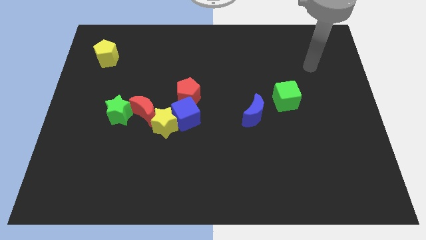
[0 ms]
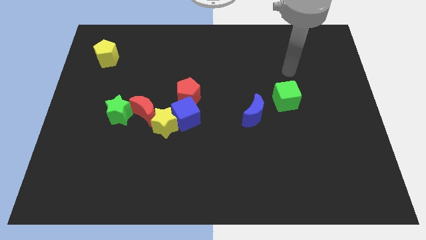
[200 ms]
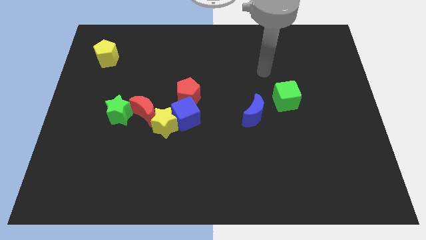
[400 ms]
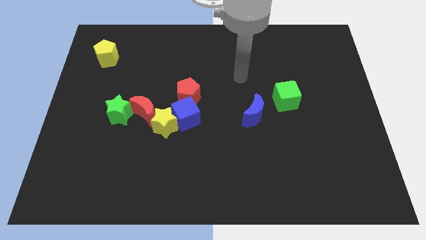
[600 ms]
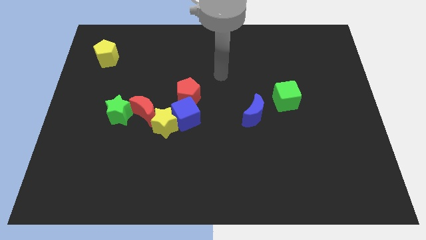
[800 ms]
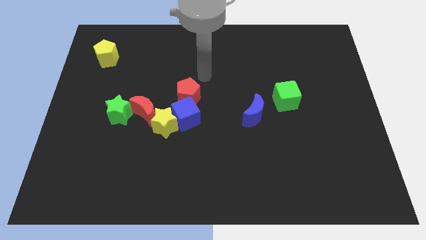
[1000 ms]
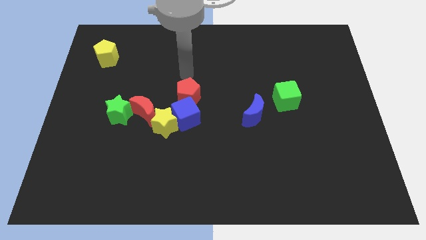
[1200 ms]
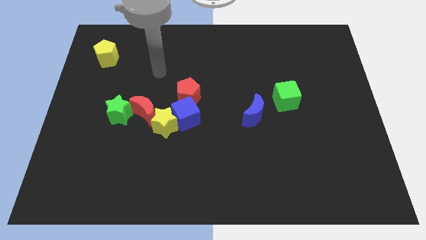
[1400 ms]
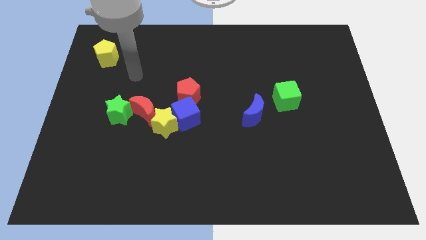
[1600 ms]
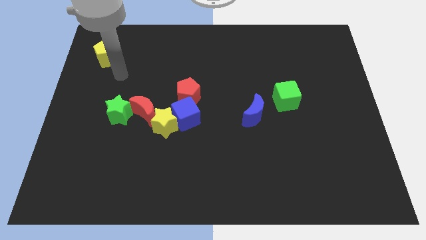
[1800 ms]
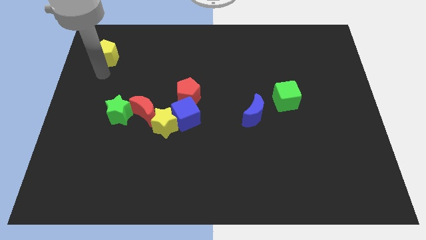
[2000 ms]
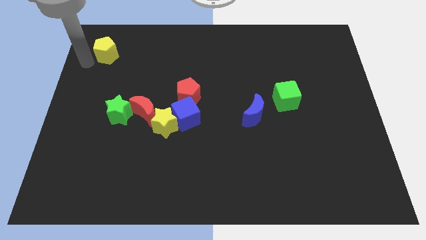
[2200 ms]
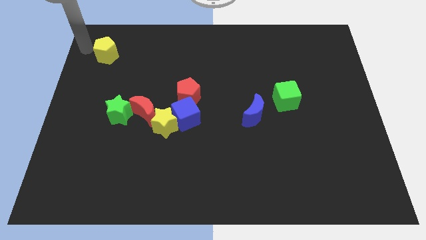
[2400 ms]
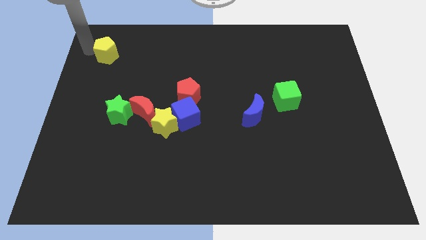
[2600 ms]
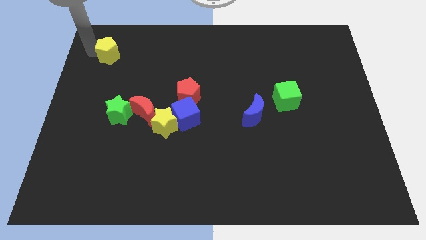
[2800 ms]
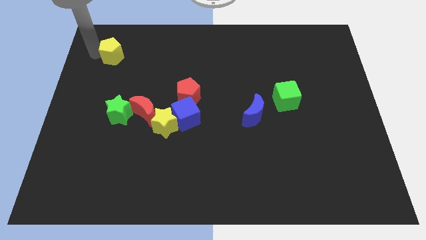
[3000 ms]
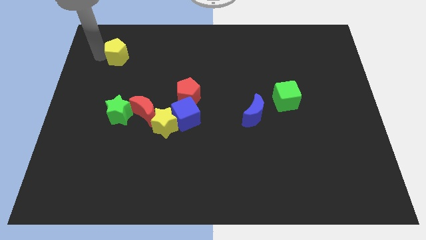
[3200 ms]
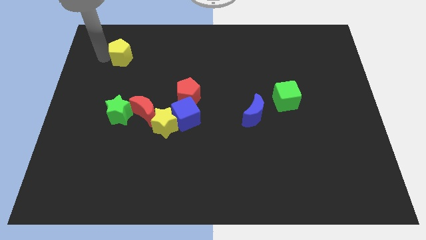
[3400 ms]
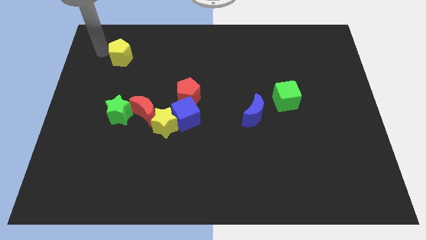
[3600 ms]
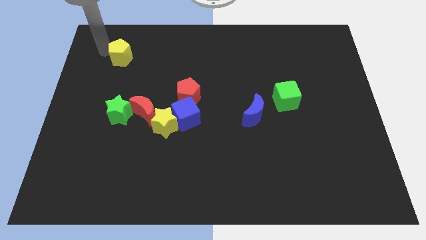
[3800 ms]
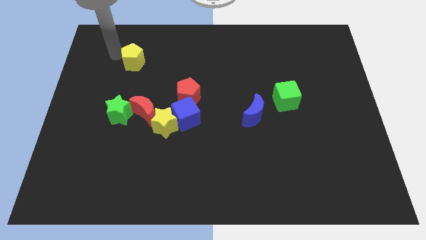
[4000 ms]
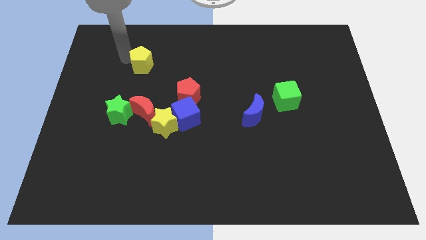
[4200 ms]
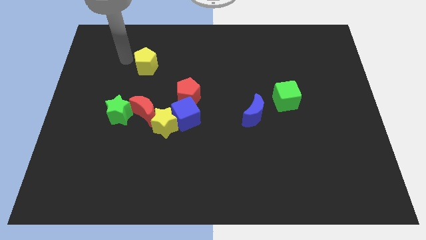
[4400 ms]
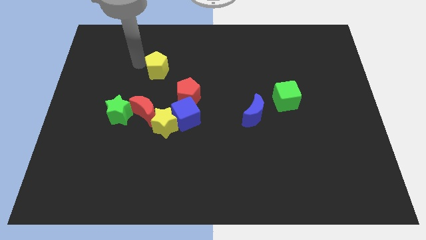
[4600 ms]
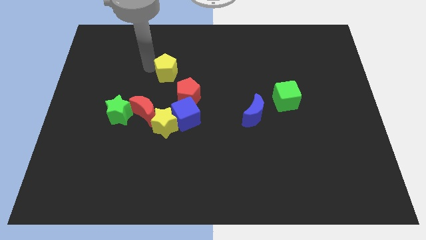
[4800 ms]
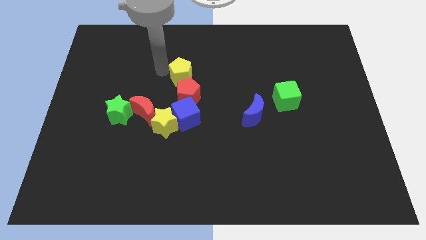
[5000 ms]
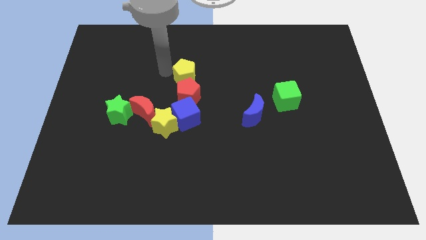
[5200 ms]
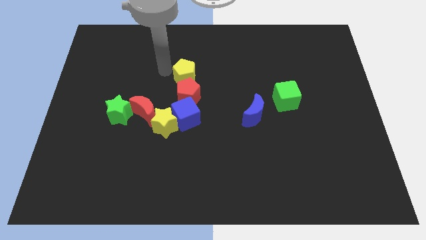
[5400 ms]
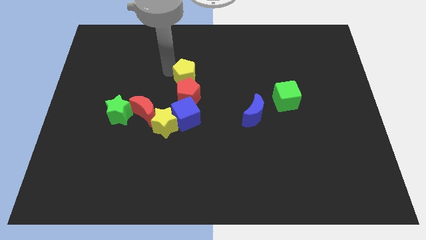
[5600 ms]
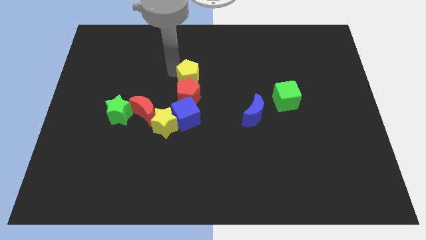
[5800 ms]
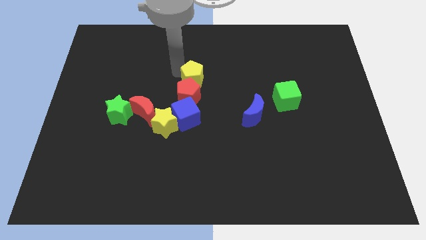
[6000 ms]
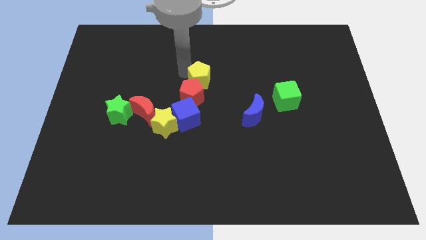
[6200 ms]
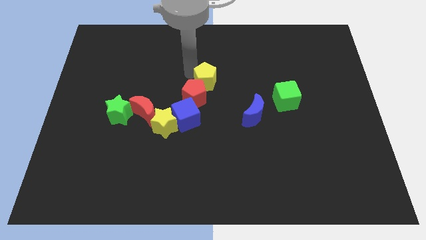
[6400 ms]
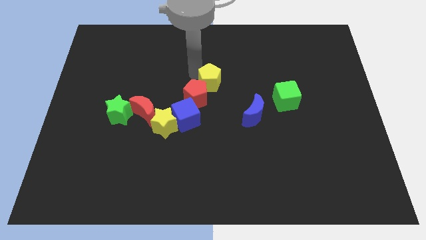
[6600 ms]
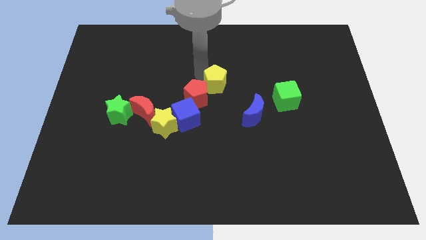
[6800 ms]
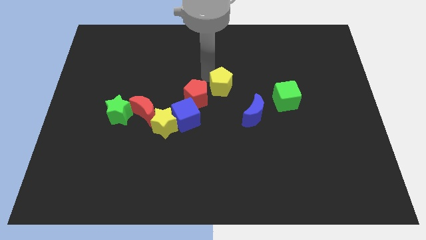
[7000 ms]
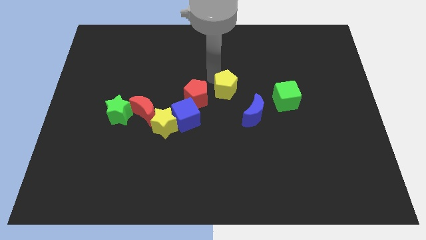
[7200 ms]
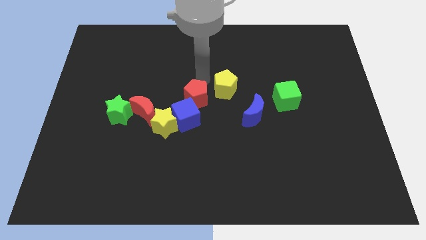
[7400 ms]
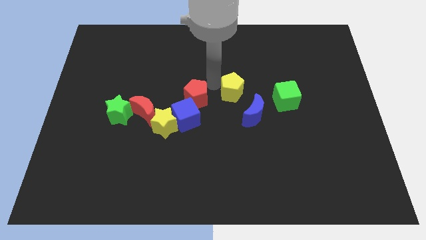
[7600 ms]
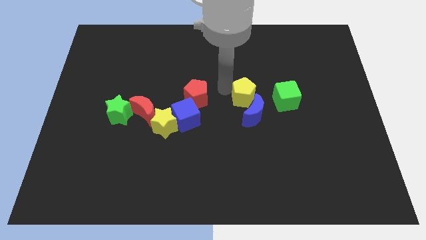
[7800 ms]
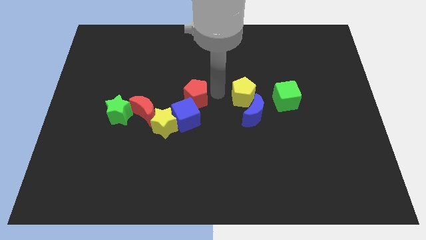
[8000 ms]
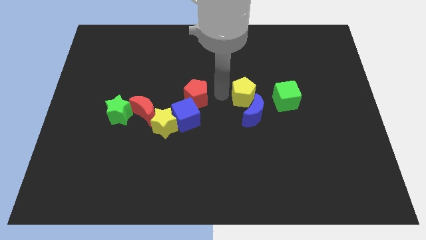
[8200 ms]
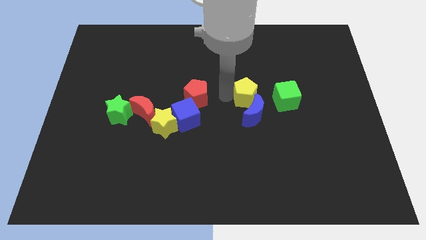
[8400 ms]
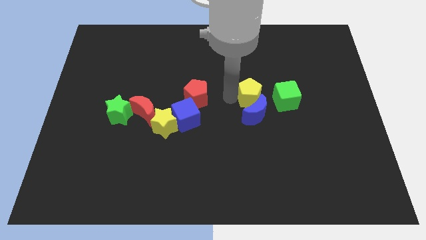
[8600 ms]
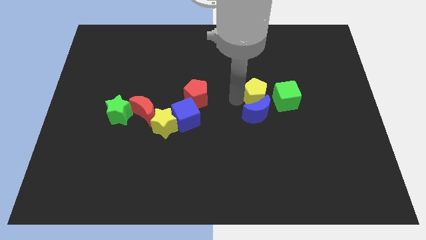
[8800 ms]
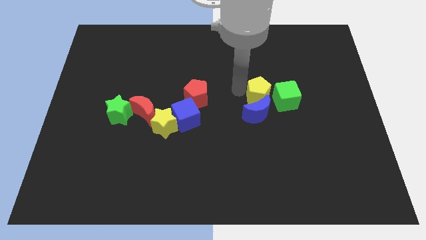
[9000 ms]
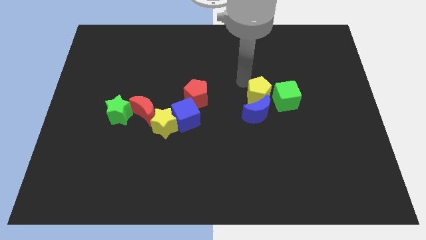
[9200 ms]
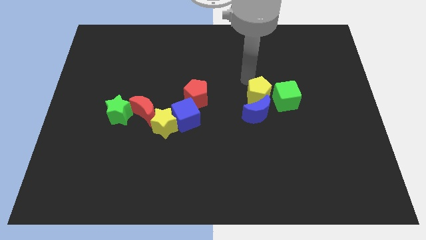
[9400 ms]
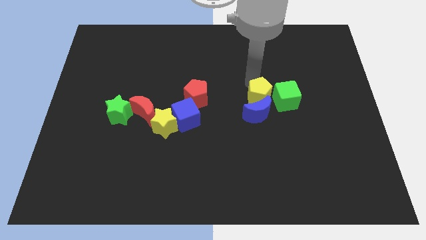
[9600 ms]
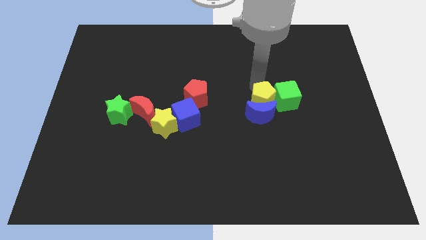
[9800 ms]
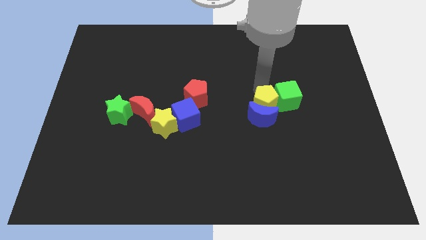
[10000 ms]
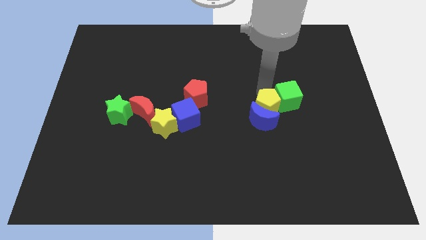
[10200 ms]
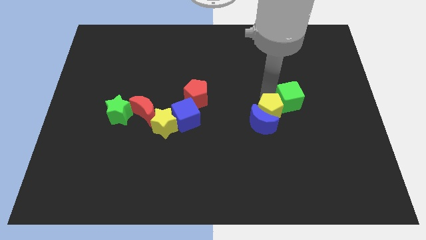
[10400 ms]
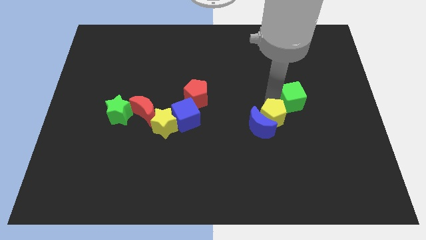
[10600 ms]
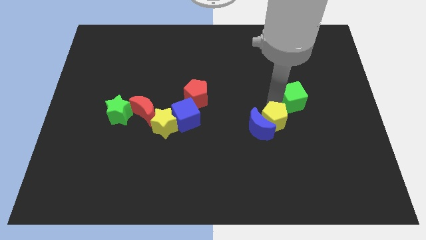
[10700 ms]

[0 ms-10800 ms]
put the yellow pentagon to the bottom right of the blue moon
